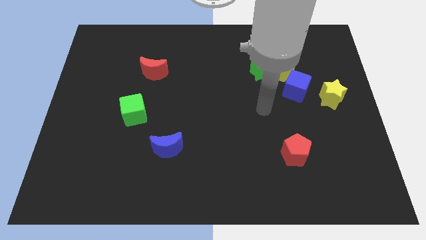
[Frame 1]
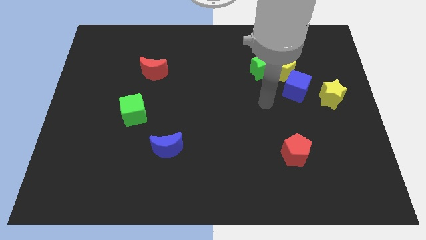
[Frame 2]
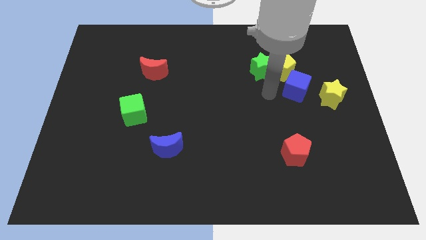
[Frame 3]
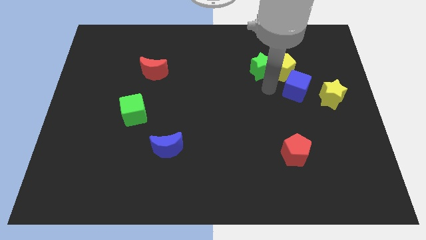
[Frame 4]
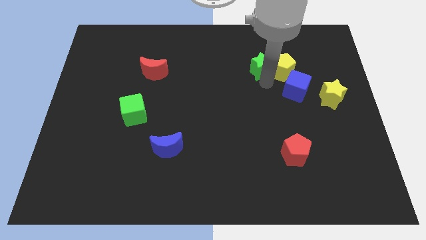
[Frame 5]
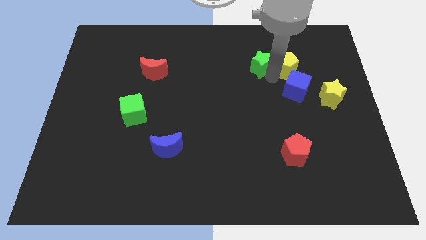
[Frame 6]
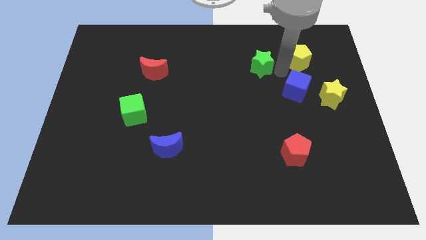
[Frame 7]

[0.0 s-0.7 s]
pull the green star apart from the yellow pentagon

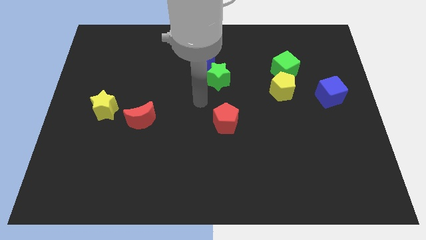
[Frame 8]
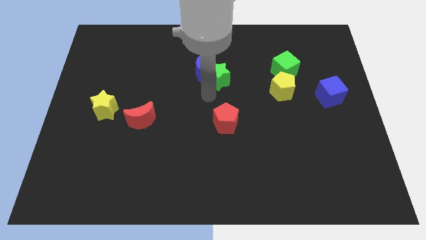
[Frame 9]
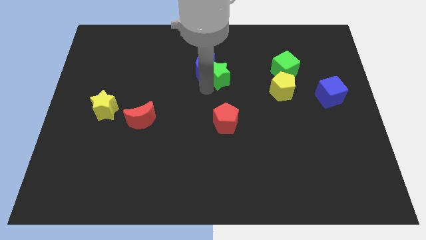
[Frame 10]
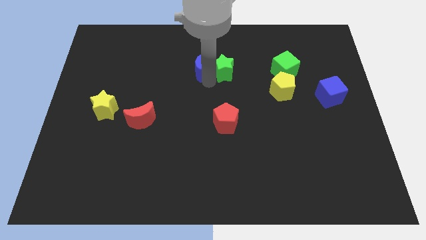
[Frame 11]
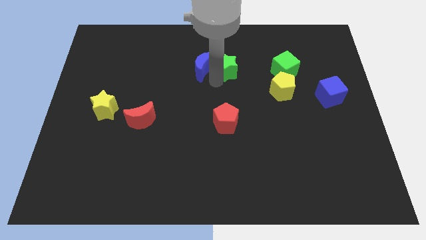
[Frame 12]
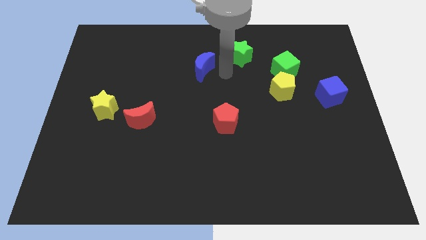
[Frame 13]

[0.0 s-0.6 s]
pull the blue moon apart from the green star

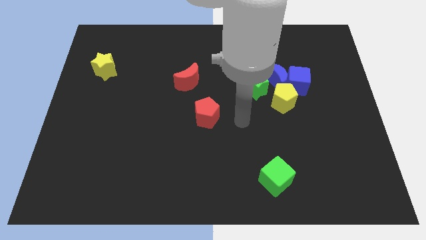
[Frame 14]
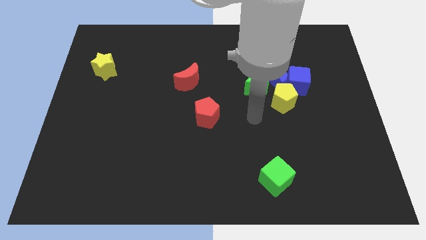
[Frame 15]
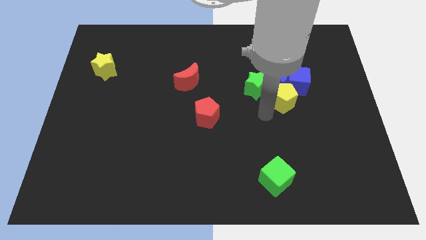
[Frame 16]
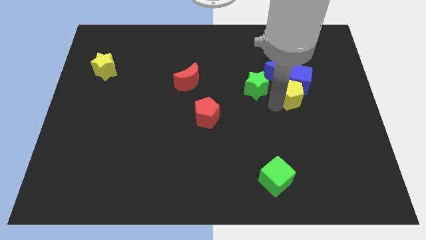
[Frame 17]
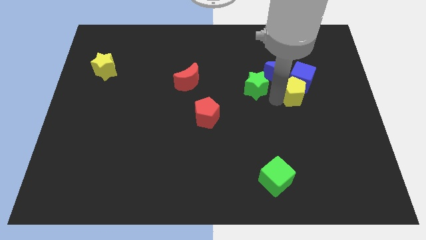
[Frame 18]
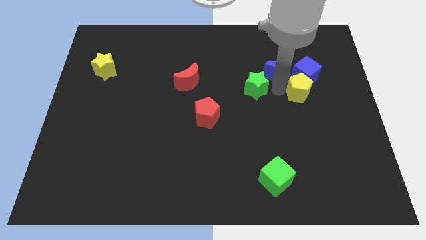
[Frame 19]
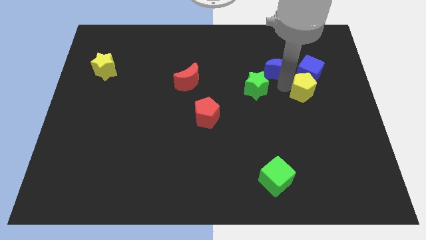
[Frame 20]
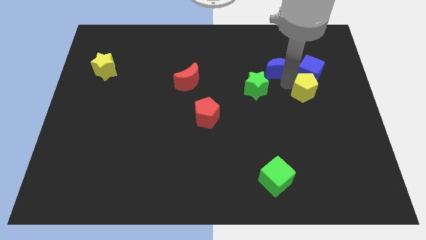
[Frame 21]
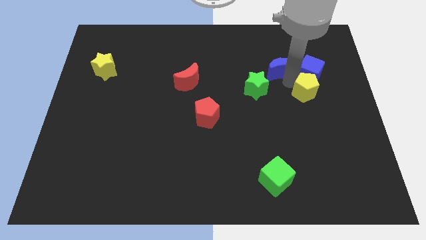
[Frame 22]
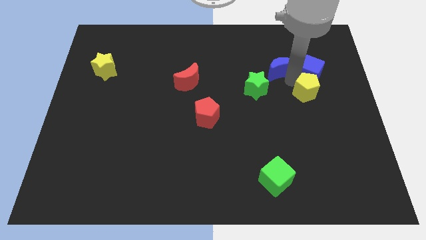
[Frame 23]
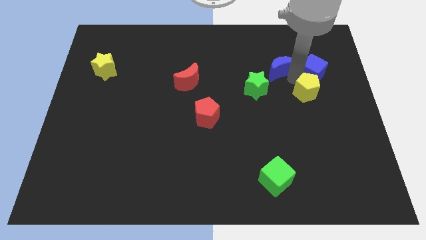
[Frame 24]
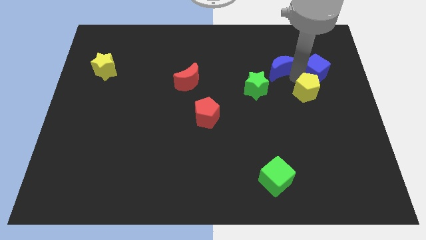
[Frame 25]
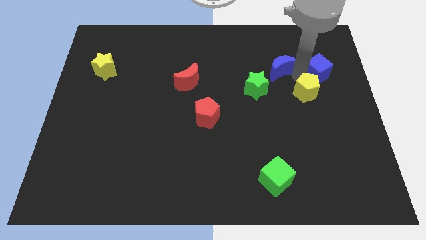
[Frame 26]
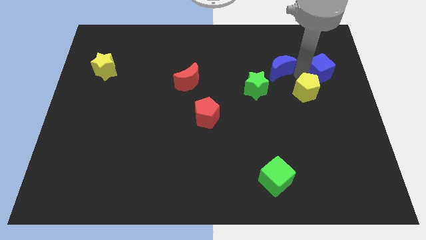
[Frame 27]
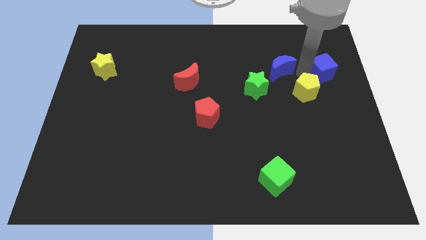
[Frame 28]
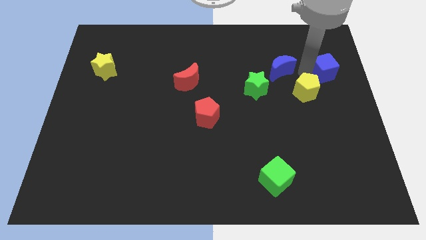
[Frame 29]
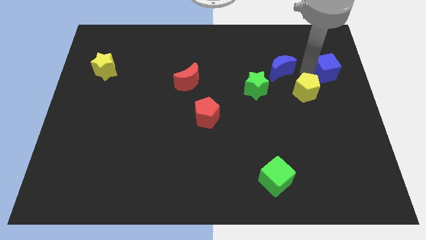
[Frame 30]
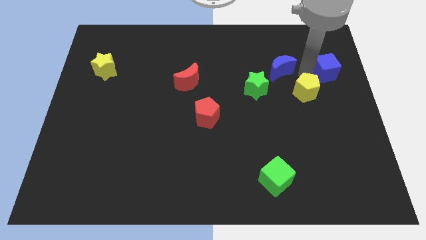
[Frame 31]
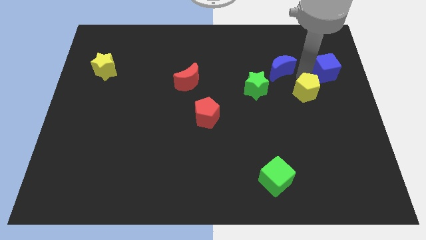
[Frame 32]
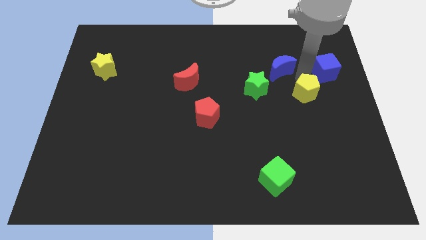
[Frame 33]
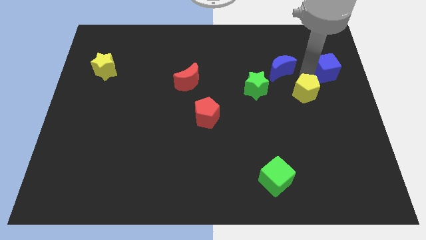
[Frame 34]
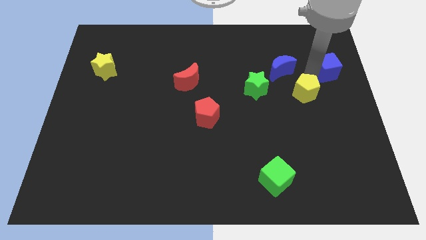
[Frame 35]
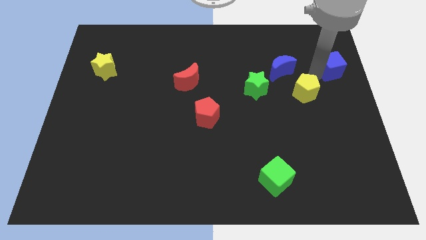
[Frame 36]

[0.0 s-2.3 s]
pull the blue cube apart from the blue moon and yellow pentagon

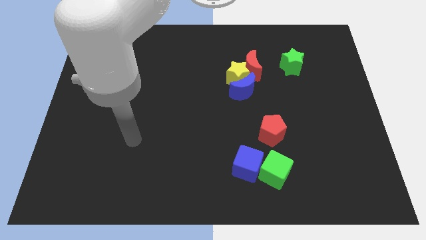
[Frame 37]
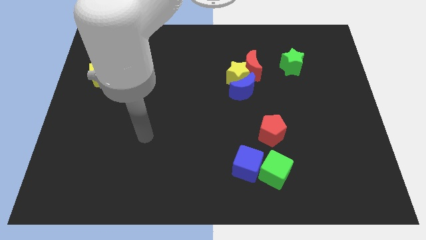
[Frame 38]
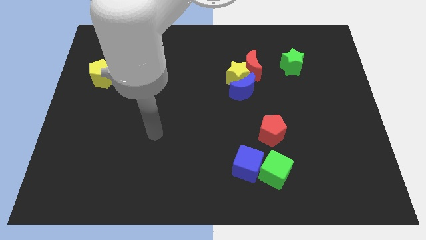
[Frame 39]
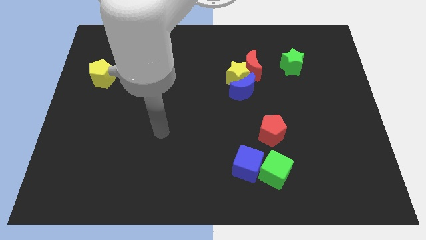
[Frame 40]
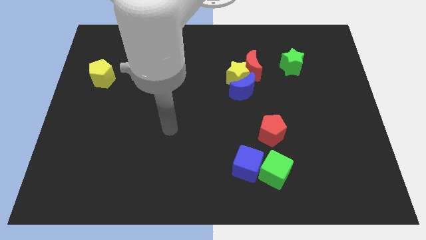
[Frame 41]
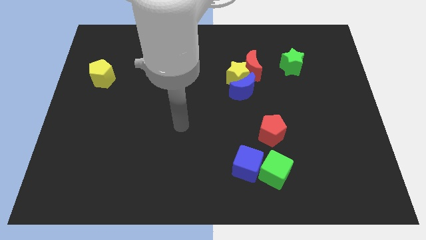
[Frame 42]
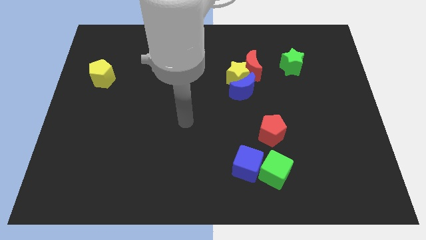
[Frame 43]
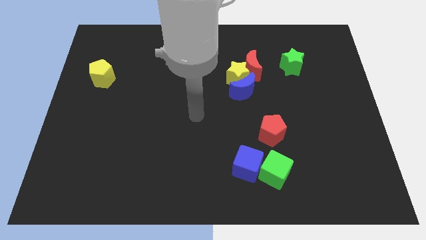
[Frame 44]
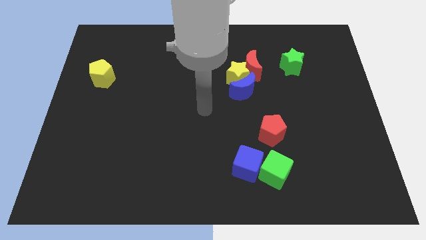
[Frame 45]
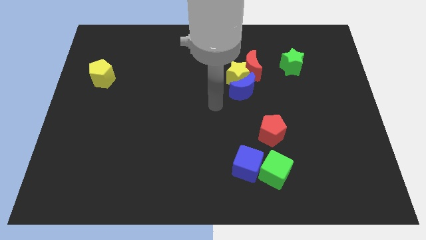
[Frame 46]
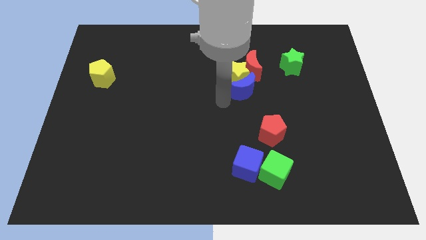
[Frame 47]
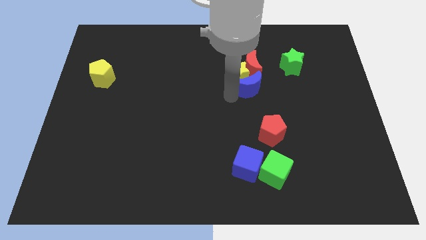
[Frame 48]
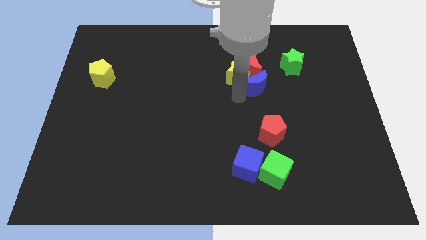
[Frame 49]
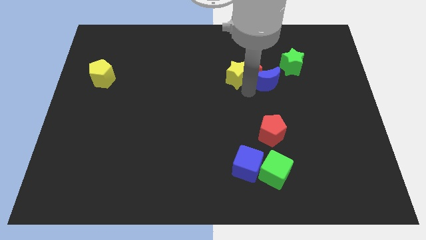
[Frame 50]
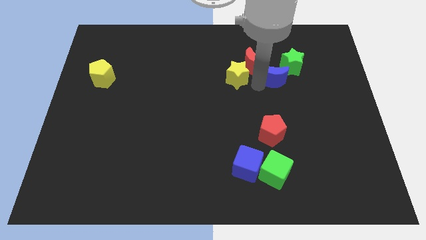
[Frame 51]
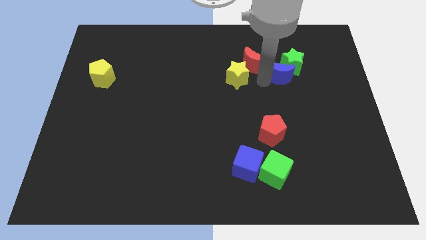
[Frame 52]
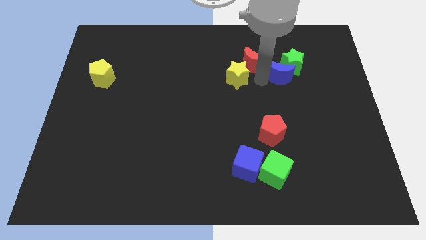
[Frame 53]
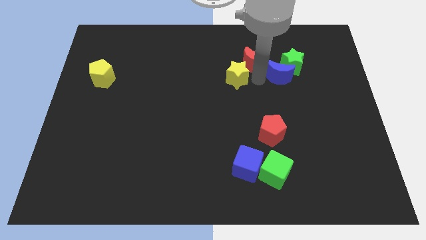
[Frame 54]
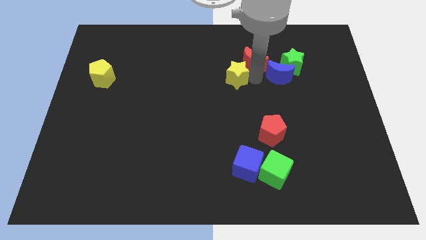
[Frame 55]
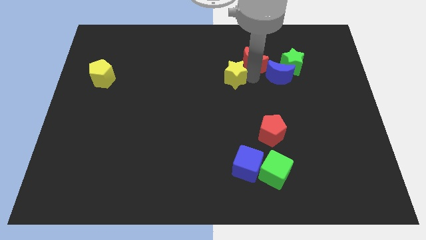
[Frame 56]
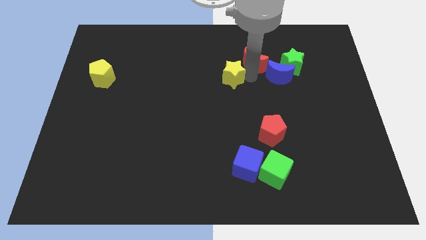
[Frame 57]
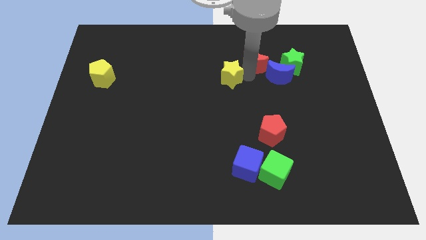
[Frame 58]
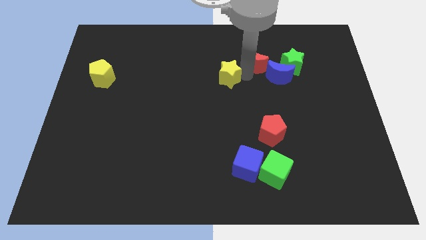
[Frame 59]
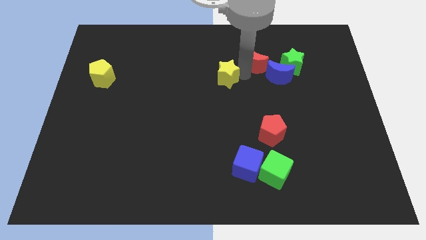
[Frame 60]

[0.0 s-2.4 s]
pull the yellow star apart from the blue moon and red moon

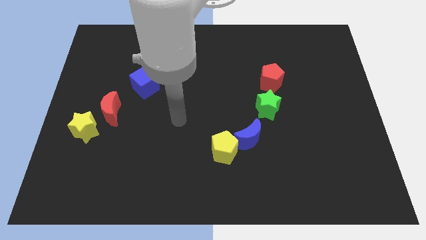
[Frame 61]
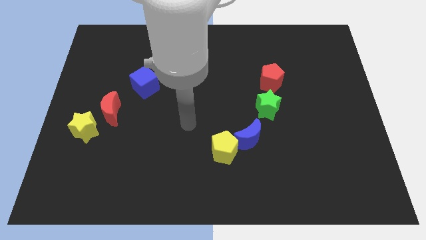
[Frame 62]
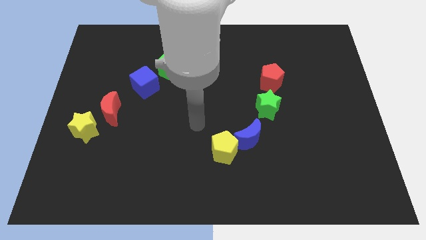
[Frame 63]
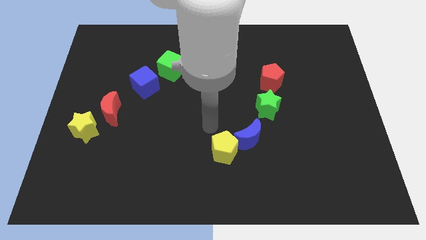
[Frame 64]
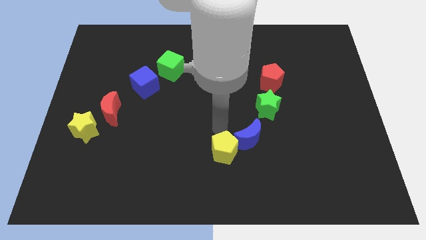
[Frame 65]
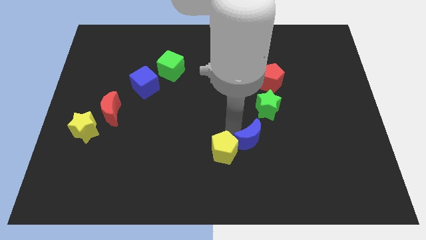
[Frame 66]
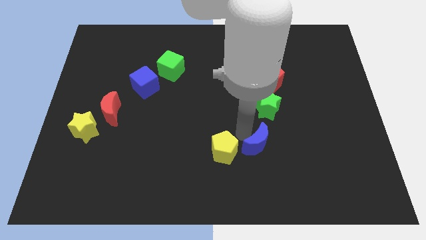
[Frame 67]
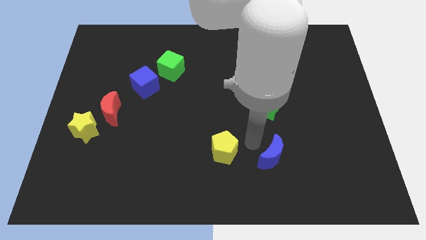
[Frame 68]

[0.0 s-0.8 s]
pull the yellow pentagon apart from the blue moon

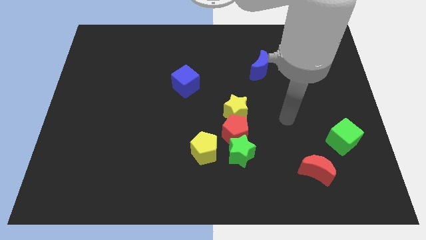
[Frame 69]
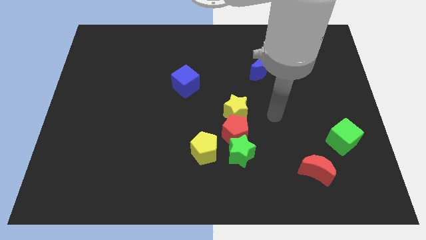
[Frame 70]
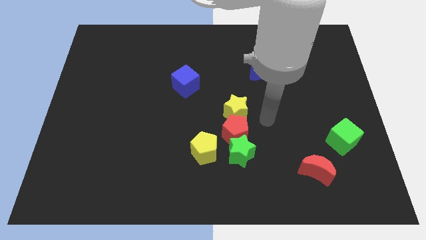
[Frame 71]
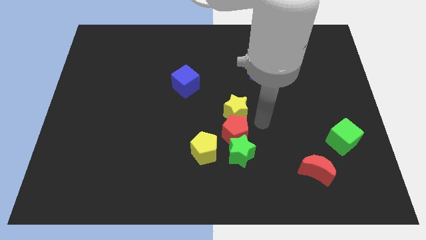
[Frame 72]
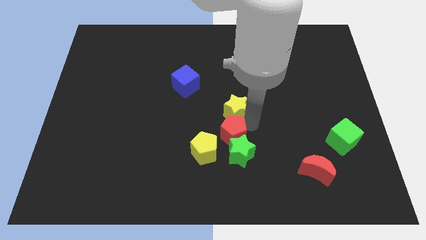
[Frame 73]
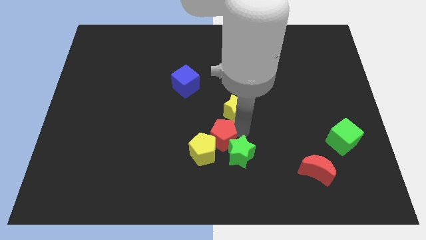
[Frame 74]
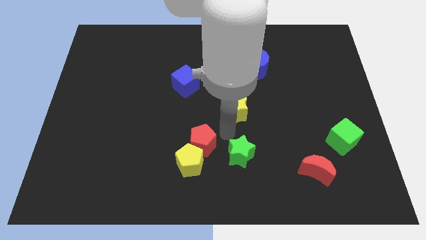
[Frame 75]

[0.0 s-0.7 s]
pull the yellow star apart from the red pentagon

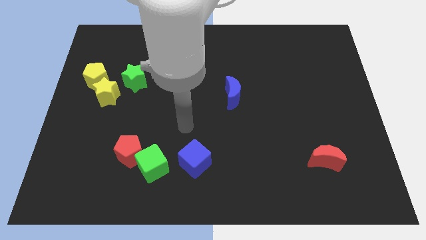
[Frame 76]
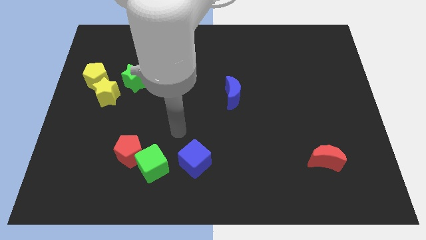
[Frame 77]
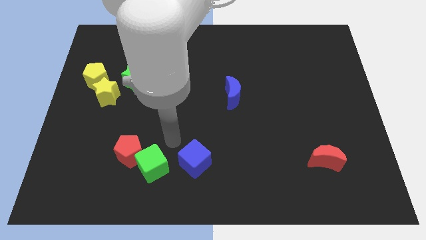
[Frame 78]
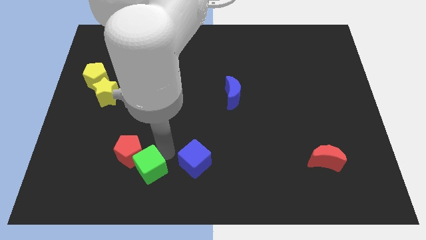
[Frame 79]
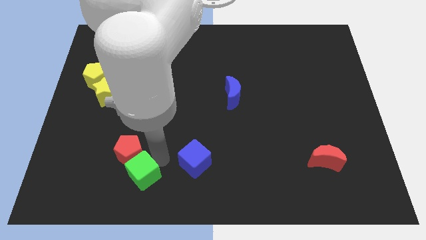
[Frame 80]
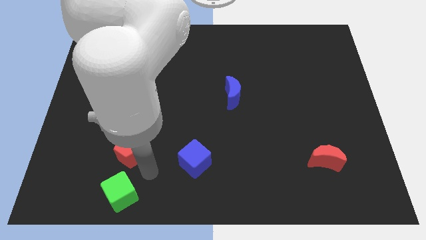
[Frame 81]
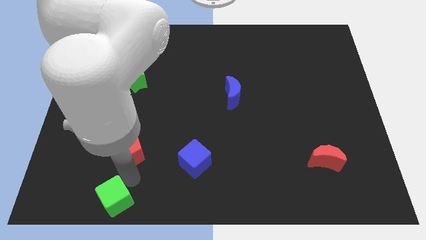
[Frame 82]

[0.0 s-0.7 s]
separate the red pentagon from the green cube

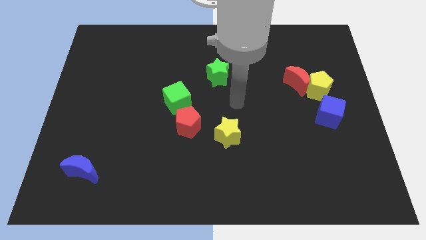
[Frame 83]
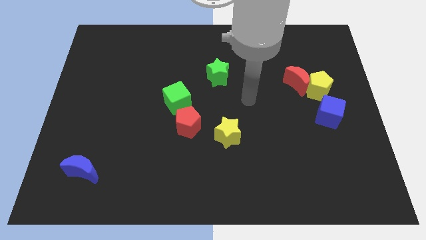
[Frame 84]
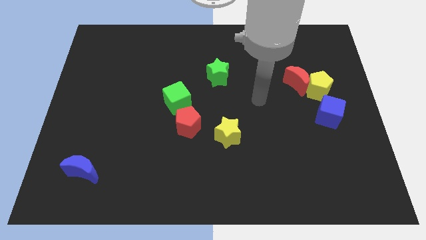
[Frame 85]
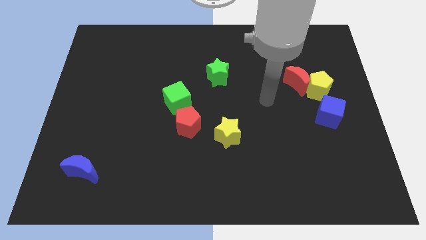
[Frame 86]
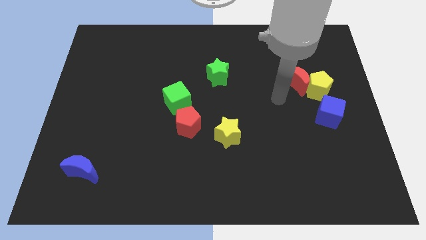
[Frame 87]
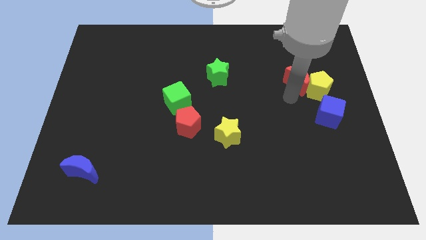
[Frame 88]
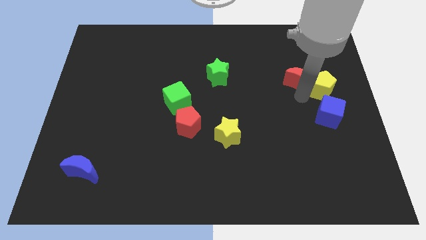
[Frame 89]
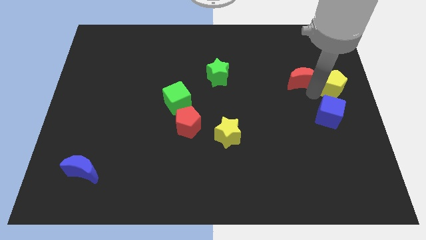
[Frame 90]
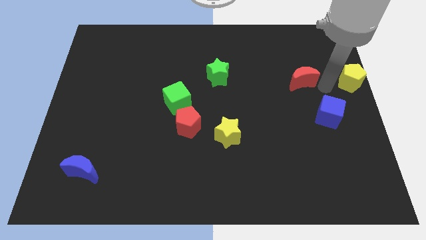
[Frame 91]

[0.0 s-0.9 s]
pull the red moon apart from the yellow pentagon
